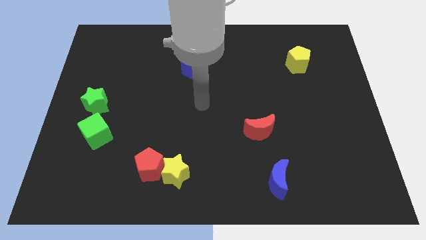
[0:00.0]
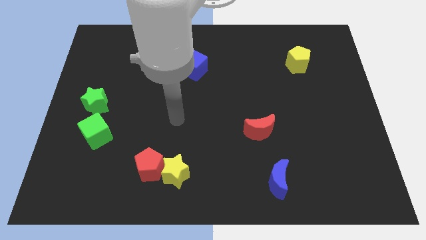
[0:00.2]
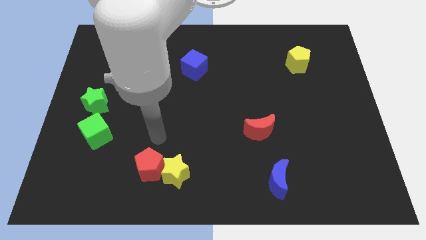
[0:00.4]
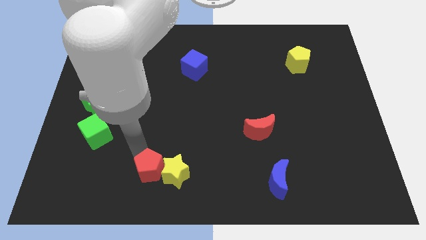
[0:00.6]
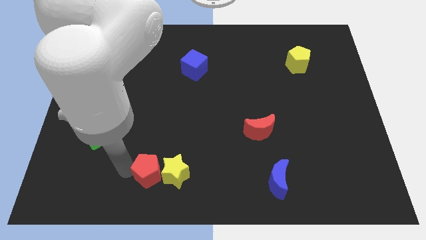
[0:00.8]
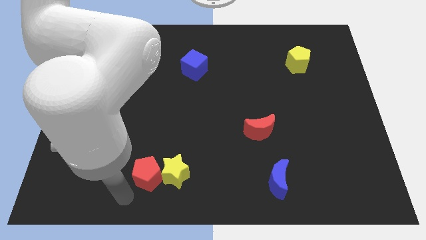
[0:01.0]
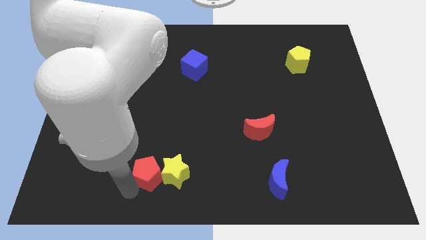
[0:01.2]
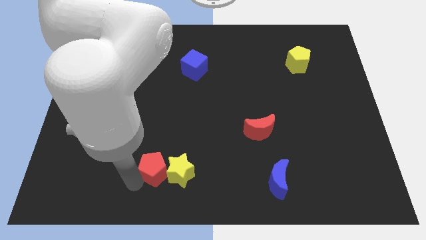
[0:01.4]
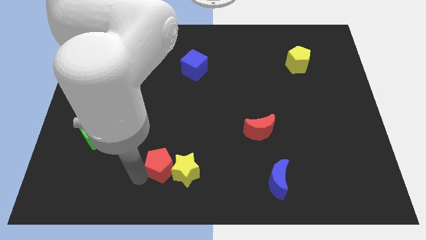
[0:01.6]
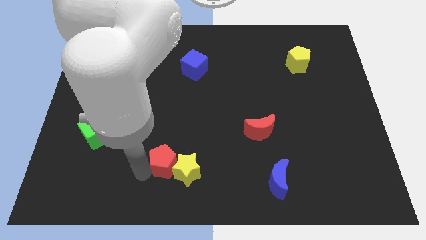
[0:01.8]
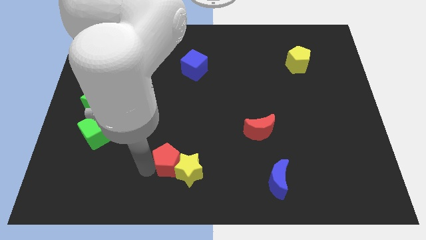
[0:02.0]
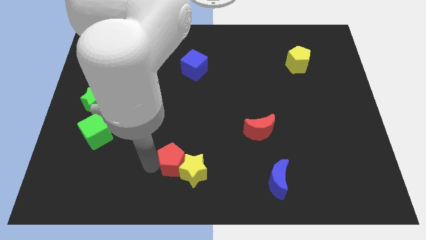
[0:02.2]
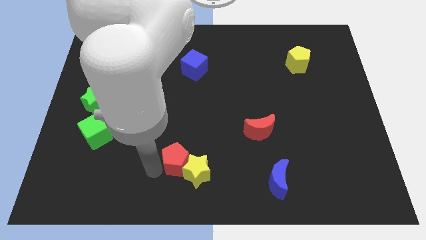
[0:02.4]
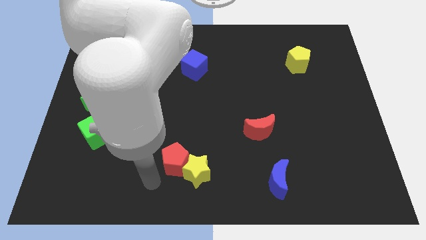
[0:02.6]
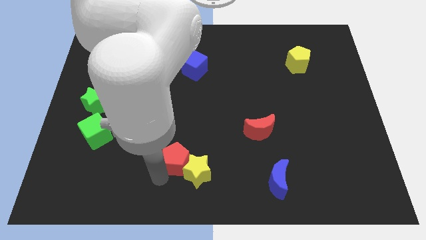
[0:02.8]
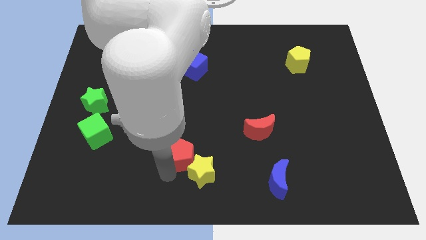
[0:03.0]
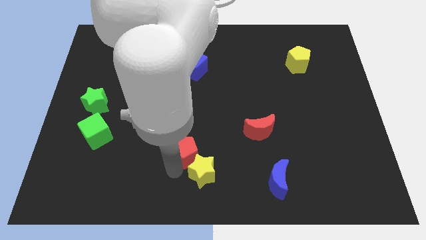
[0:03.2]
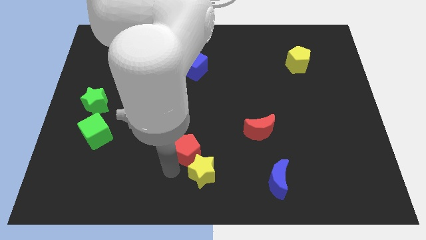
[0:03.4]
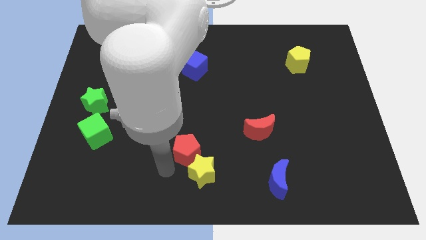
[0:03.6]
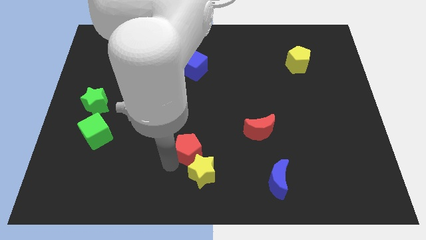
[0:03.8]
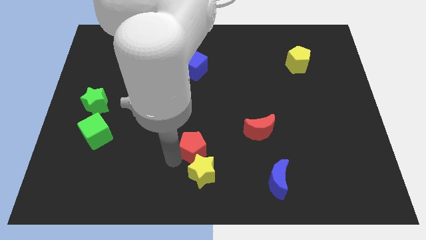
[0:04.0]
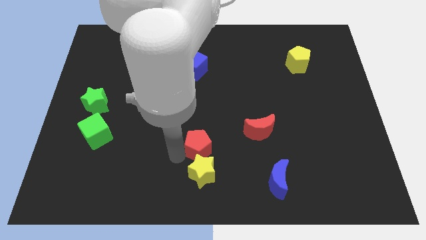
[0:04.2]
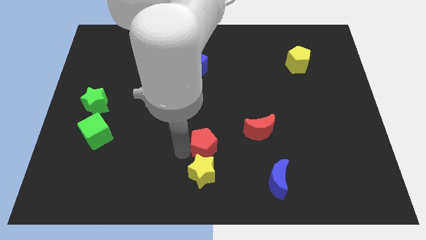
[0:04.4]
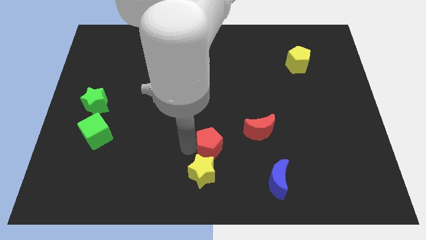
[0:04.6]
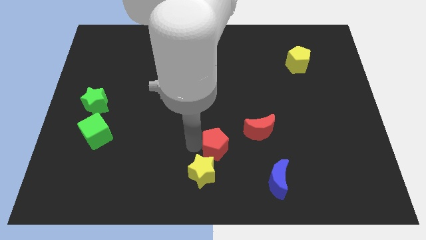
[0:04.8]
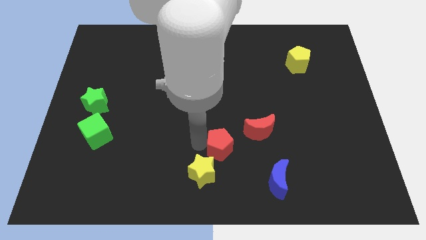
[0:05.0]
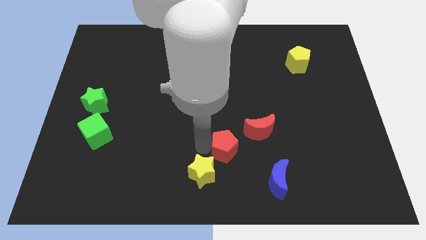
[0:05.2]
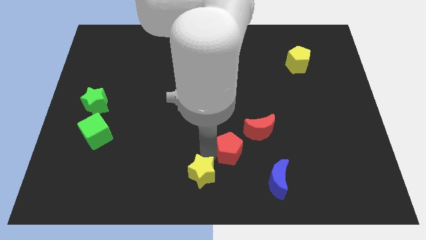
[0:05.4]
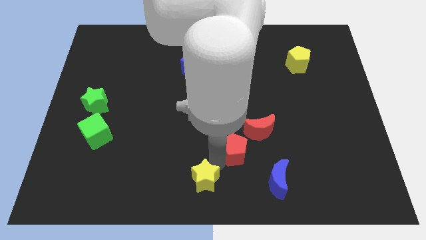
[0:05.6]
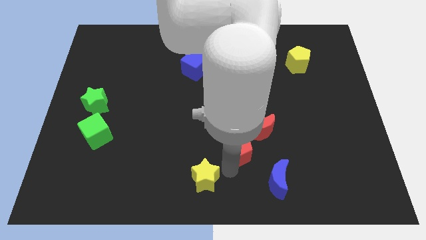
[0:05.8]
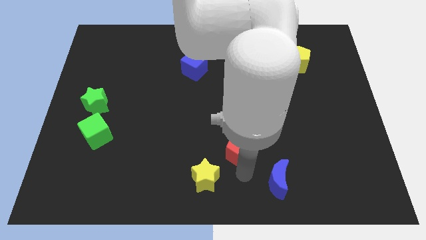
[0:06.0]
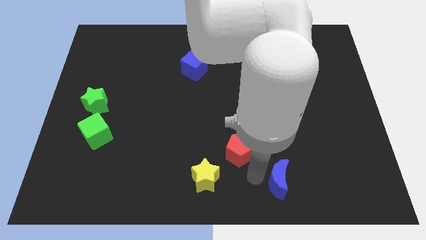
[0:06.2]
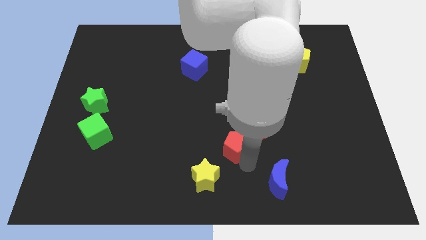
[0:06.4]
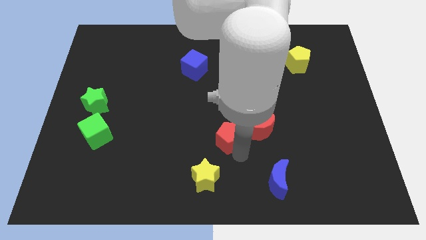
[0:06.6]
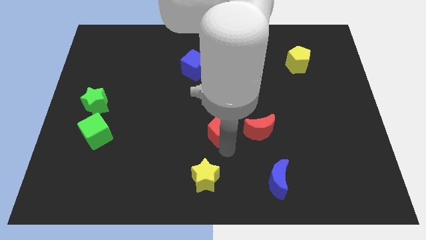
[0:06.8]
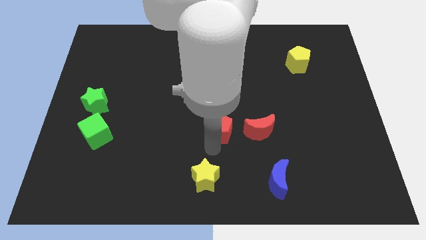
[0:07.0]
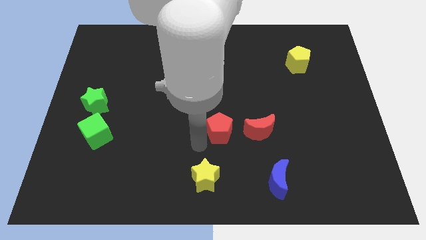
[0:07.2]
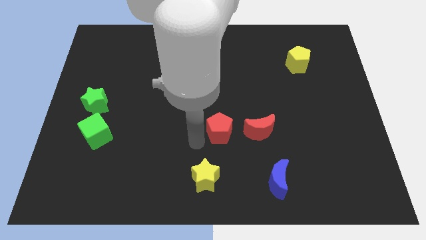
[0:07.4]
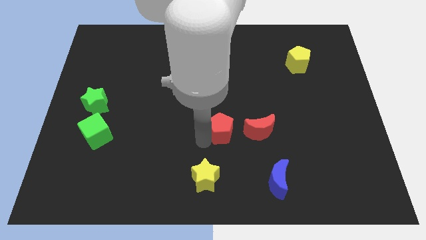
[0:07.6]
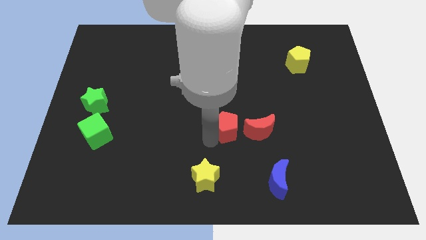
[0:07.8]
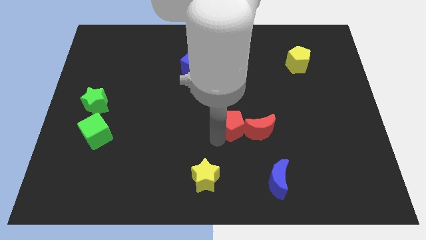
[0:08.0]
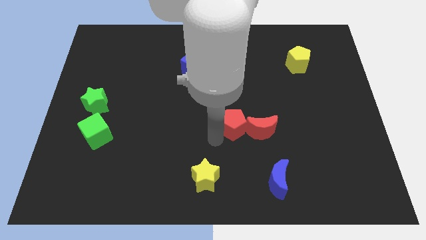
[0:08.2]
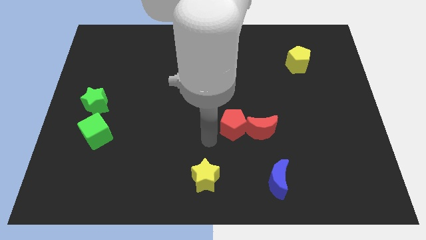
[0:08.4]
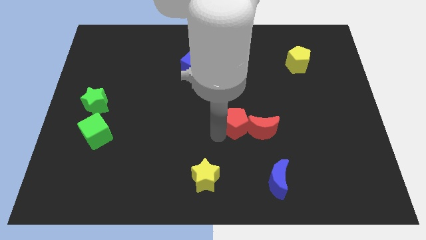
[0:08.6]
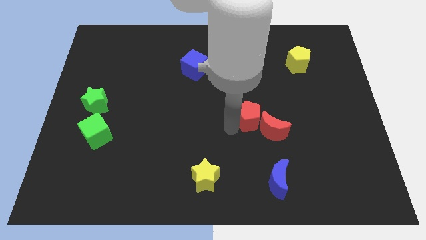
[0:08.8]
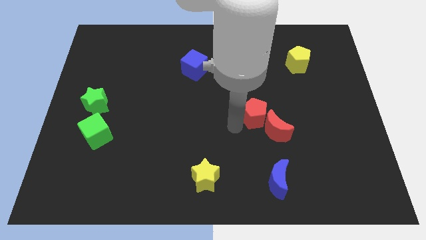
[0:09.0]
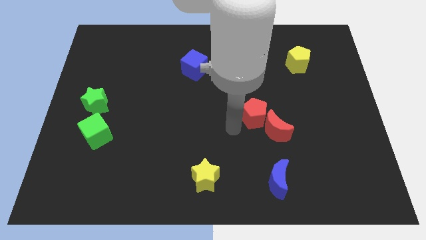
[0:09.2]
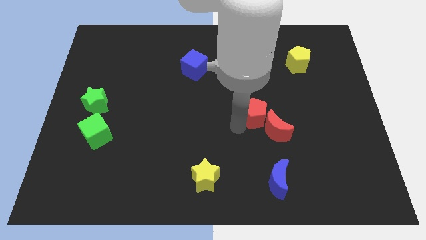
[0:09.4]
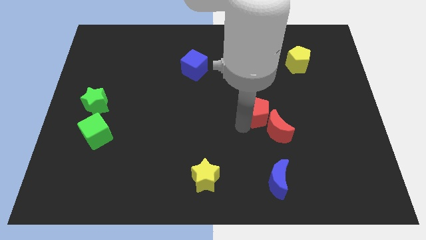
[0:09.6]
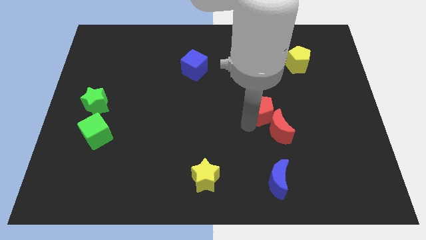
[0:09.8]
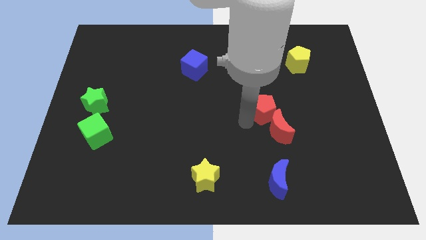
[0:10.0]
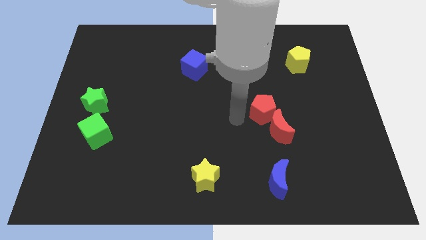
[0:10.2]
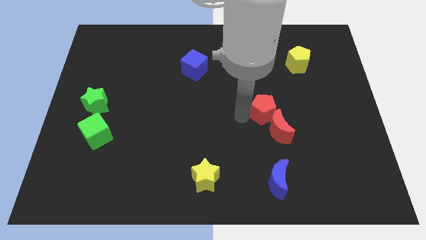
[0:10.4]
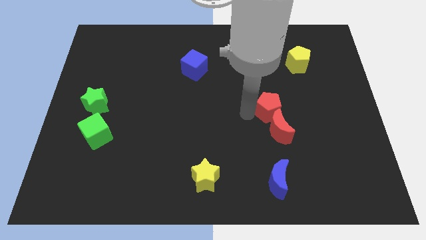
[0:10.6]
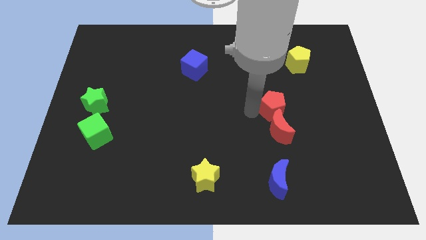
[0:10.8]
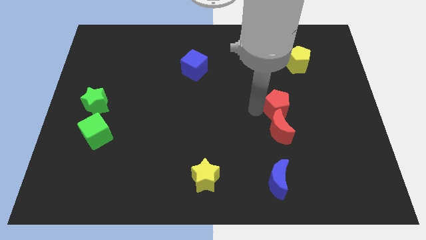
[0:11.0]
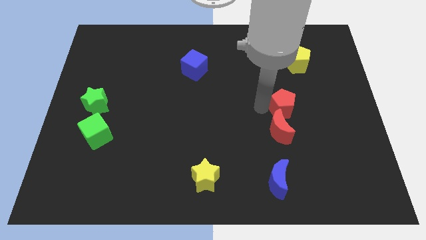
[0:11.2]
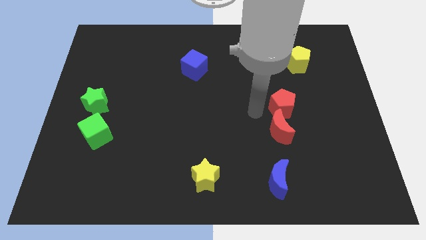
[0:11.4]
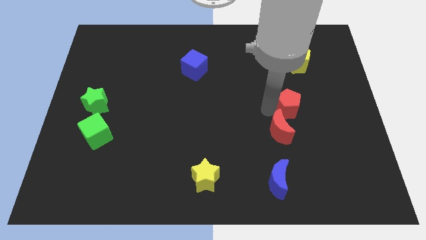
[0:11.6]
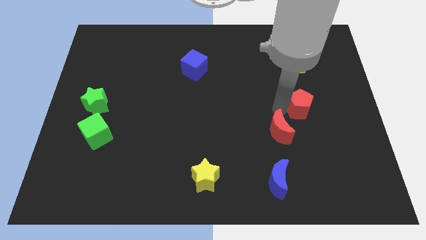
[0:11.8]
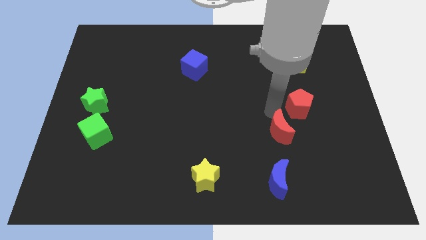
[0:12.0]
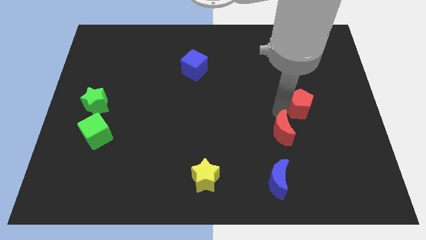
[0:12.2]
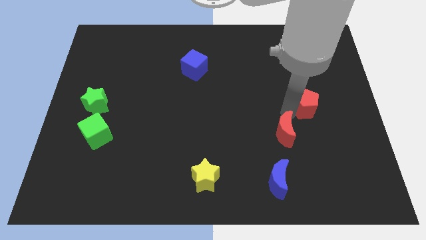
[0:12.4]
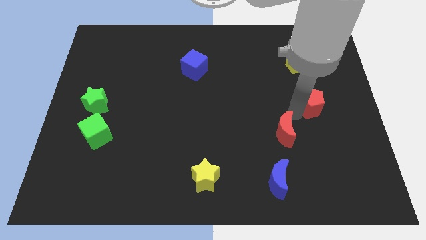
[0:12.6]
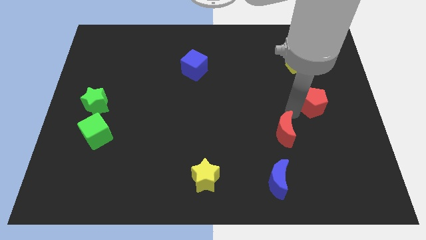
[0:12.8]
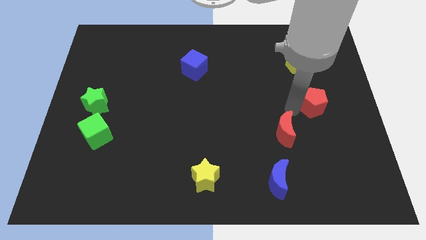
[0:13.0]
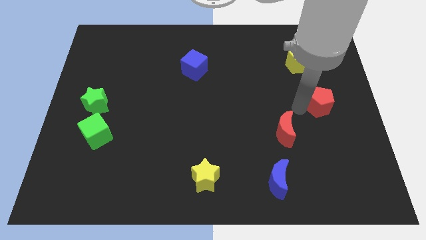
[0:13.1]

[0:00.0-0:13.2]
slide the red pentagon to the center right
